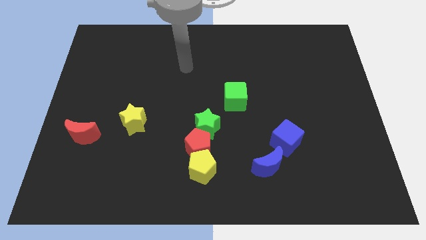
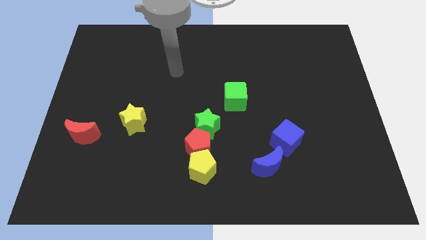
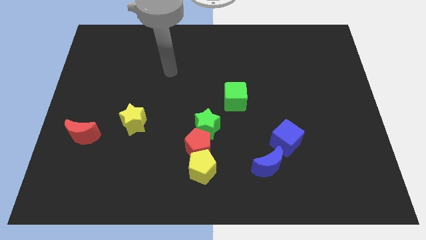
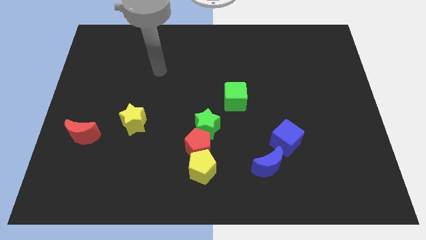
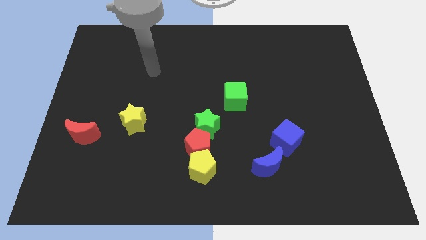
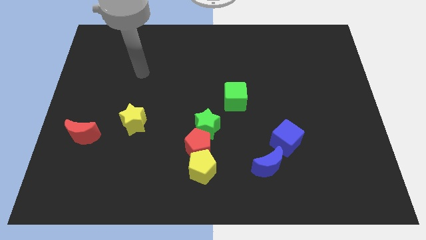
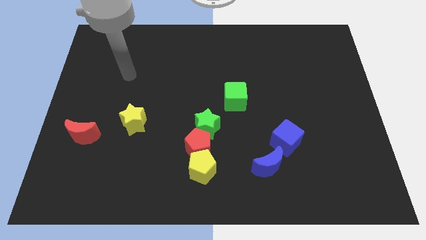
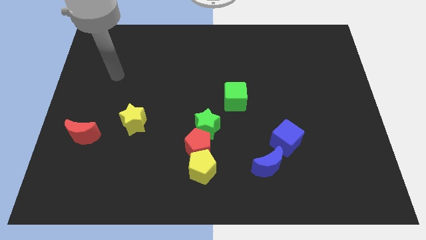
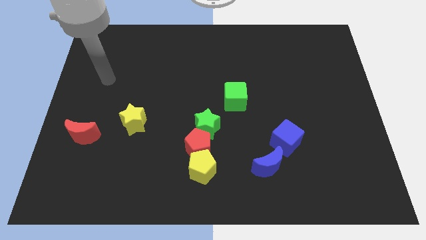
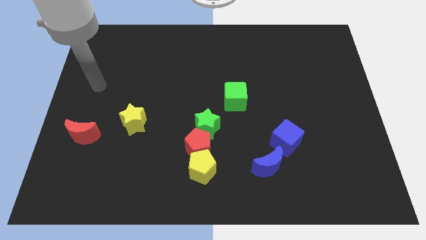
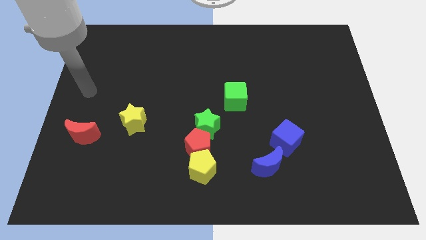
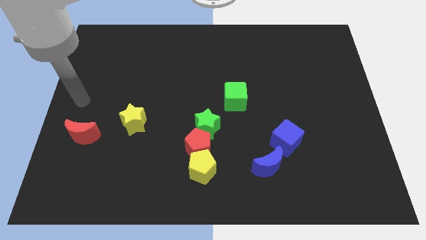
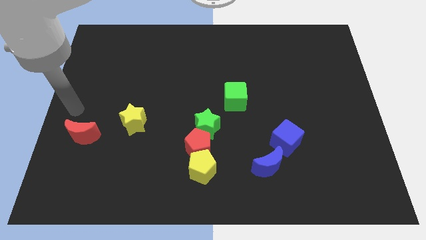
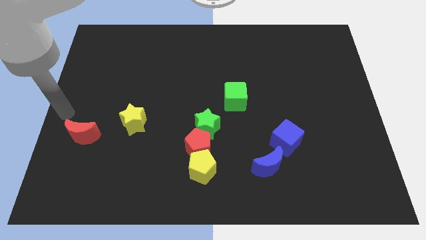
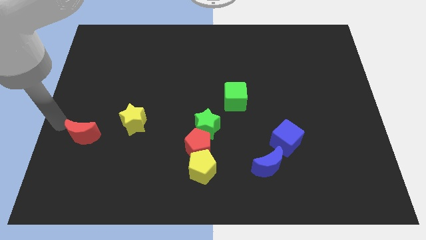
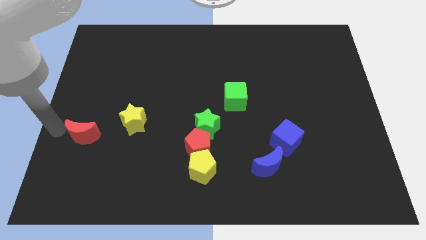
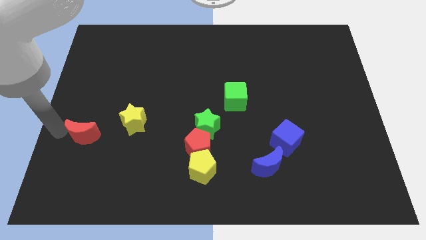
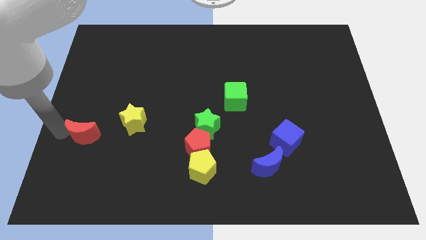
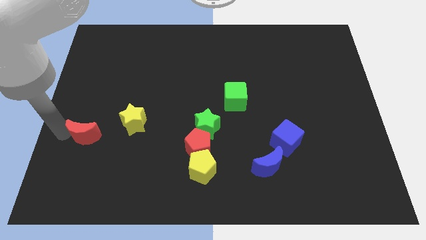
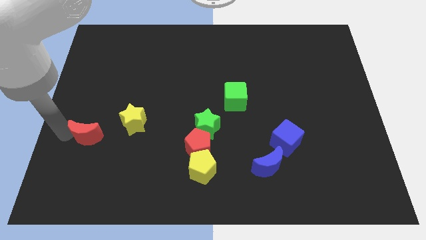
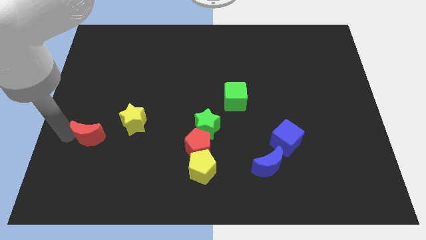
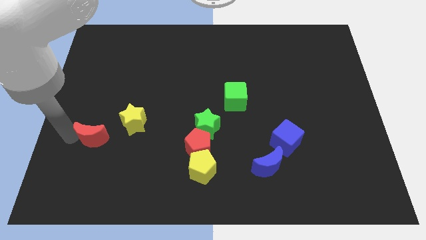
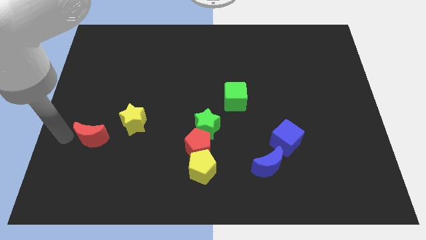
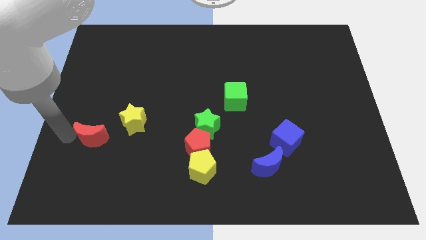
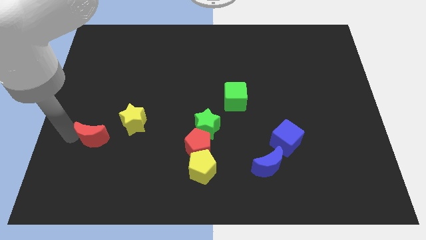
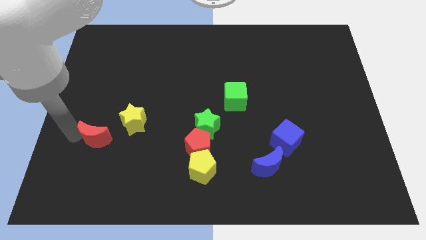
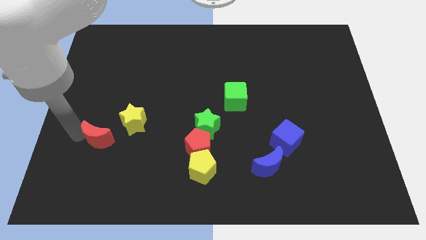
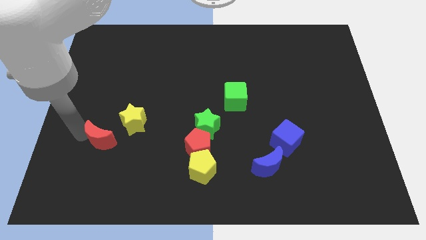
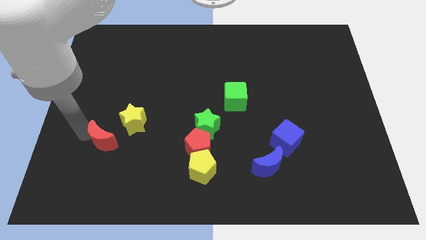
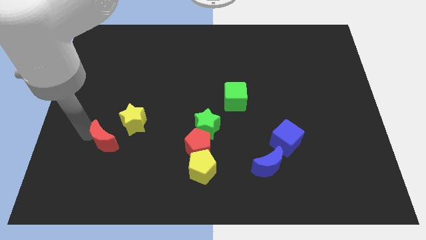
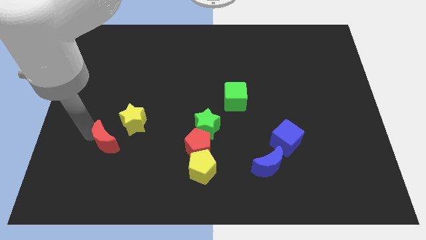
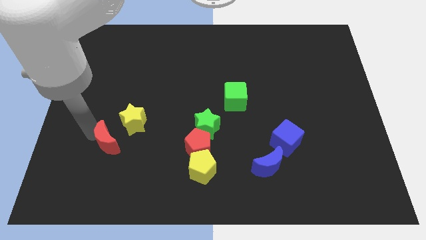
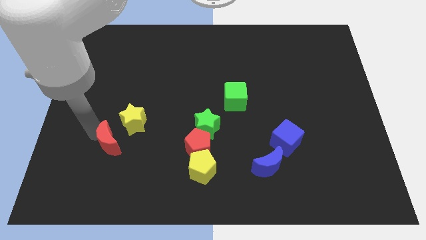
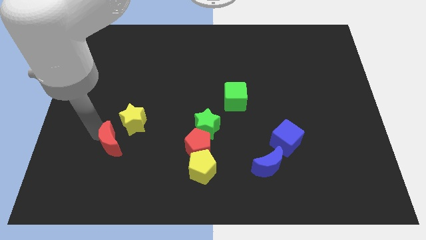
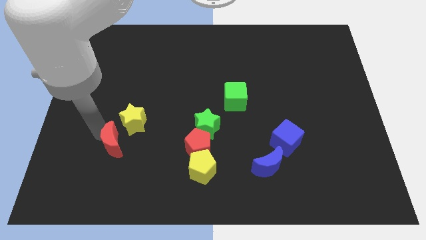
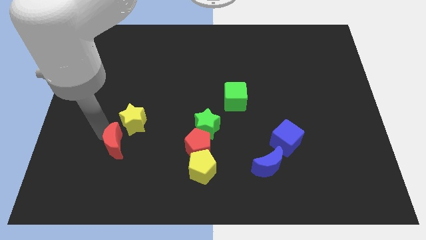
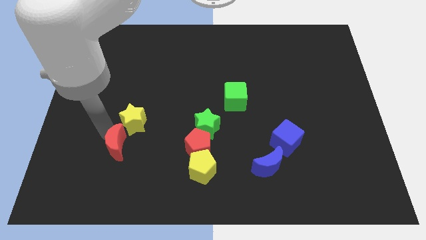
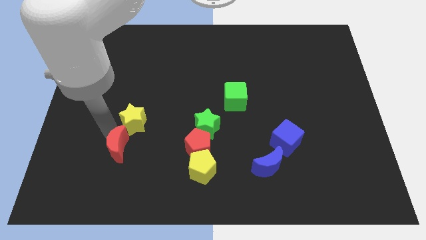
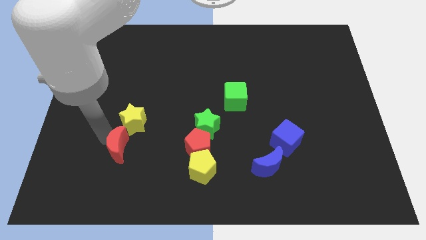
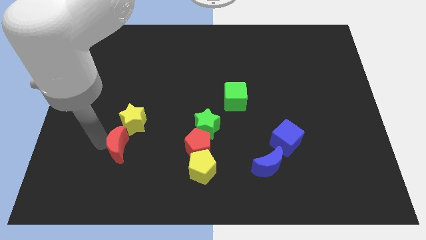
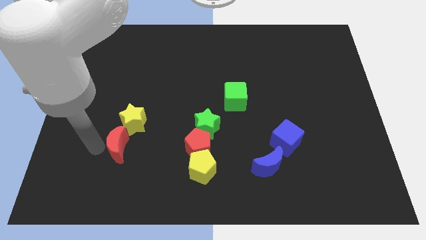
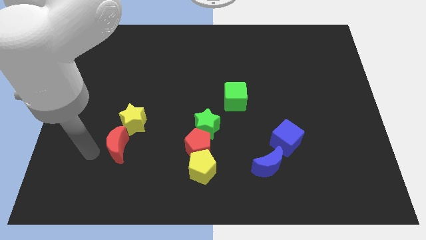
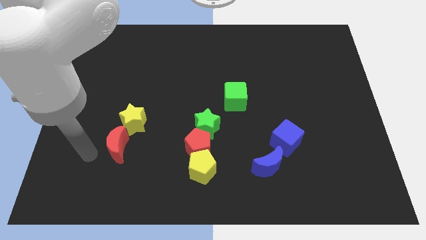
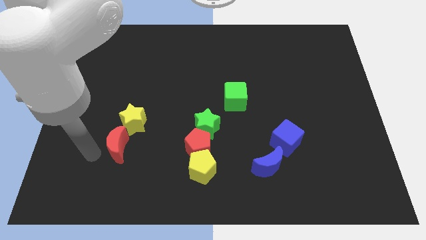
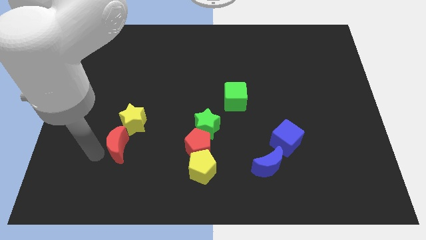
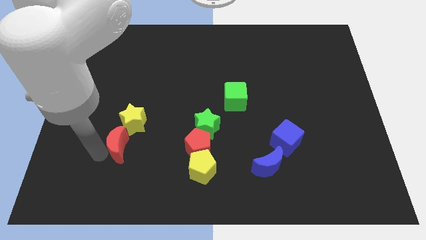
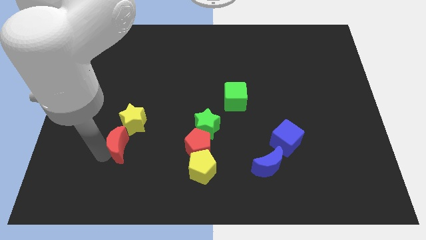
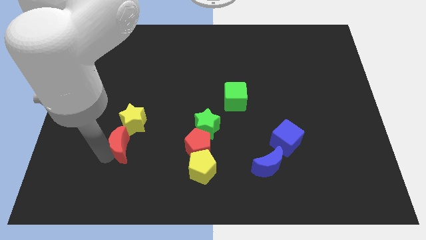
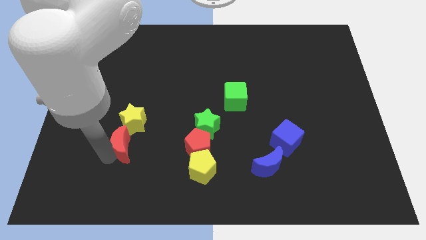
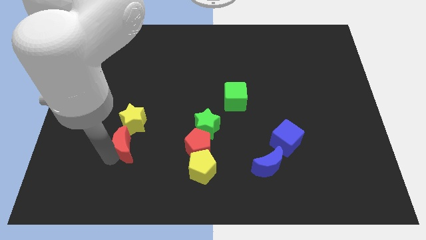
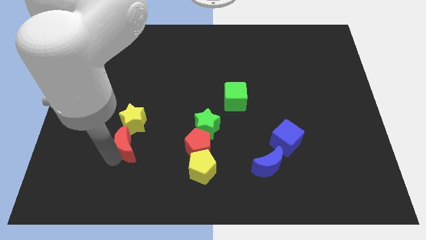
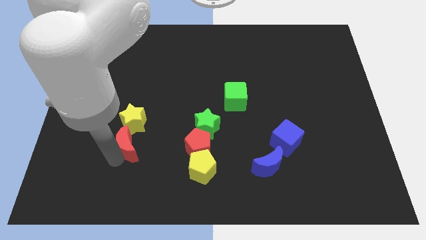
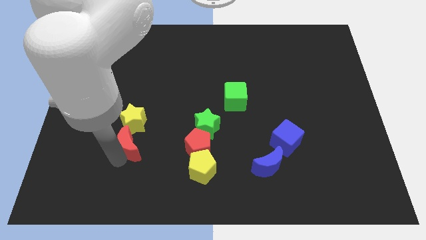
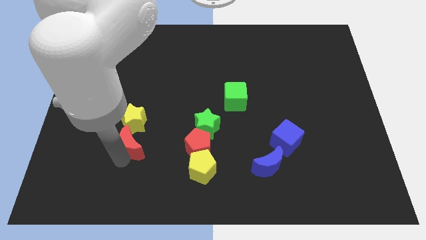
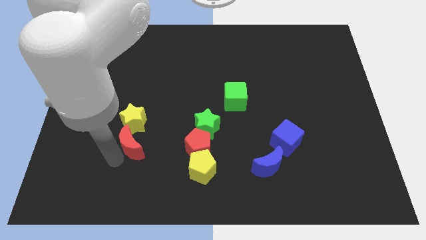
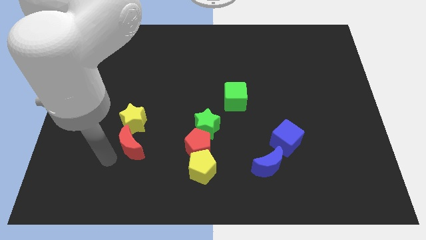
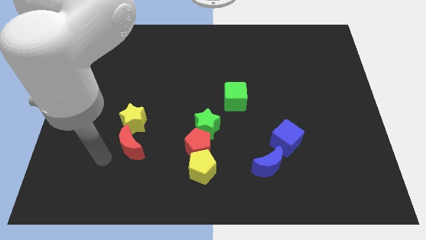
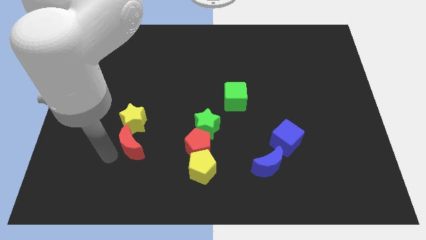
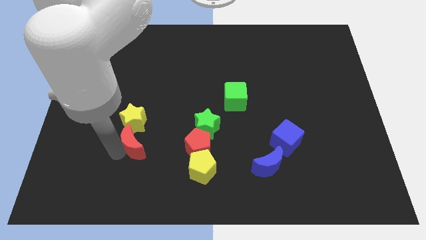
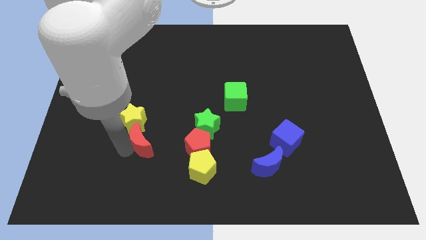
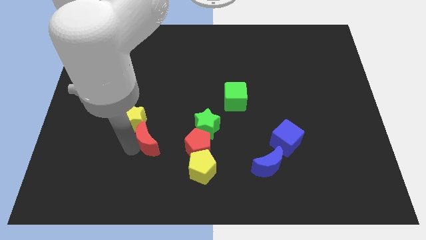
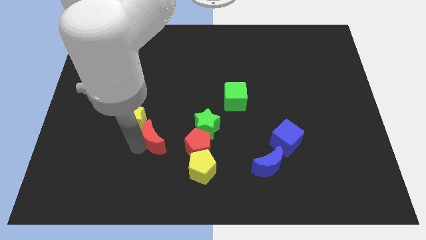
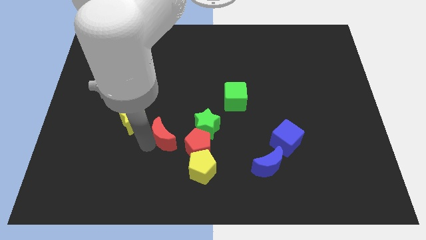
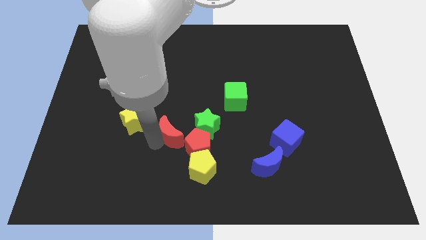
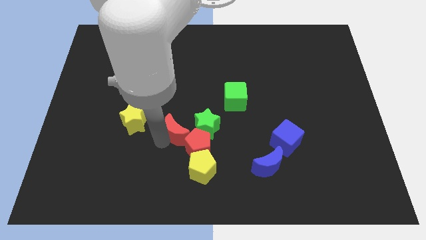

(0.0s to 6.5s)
move the red moon to the right

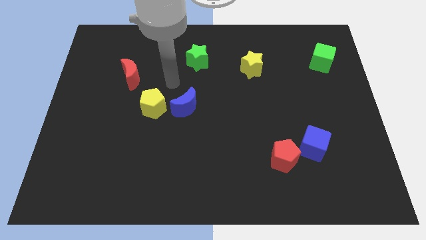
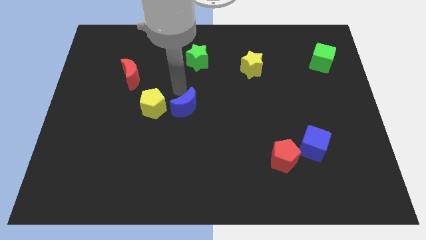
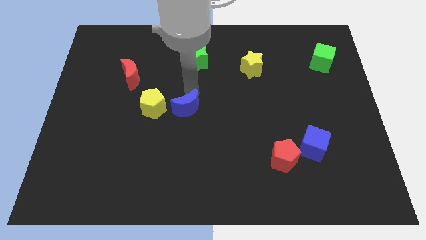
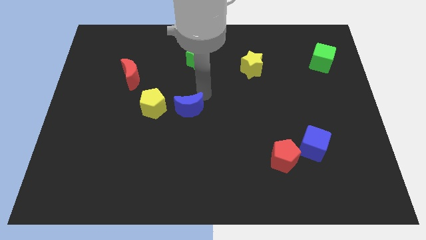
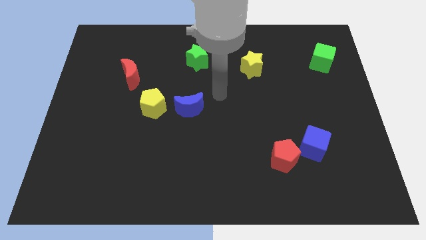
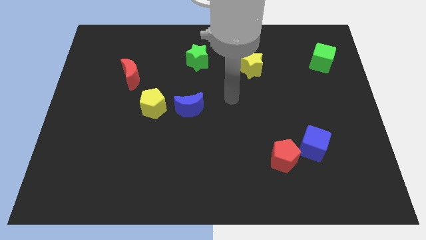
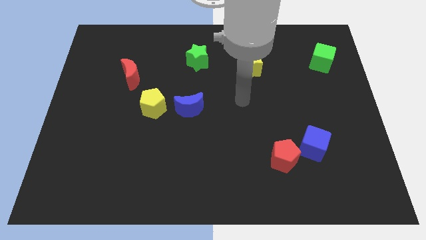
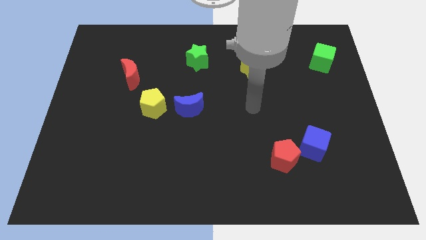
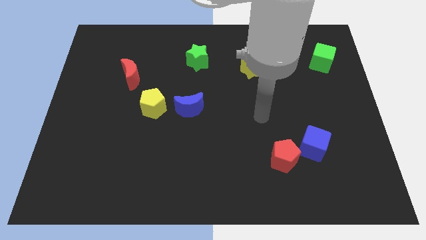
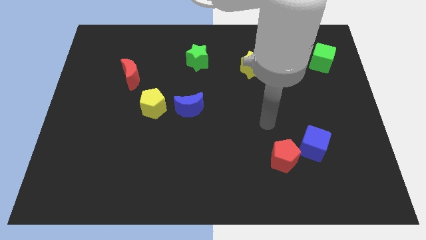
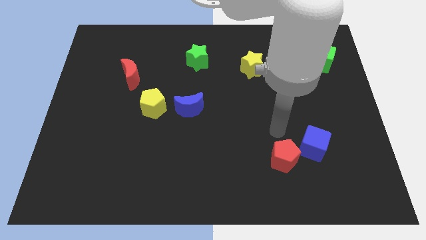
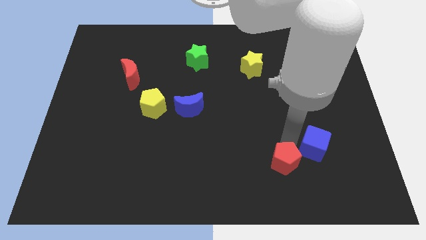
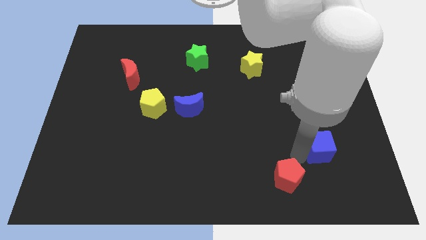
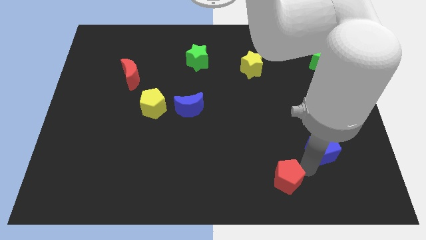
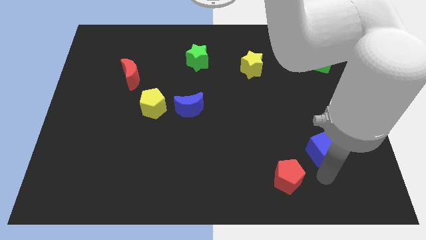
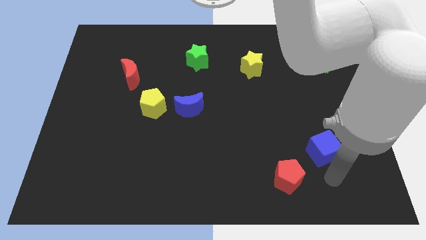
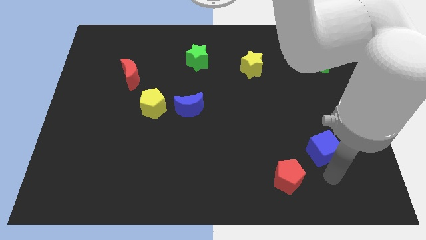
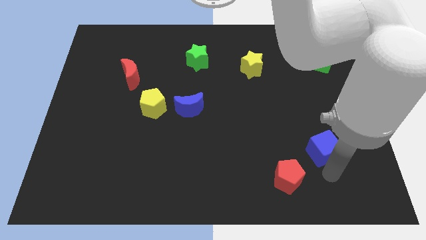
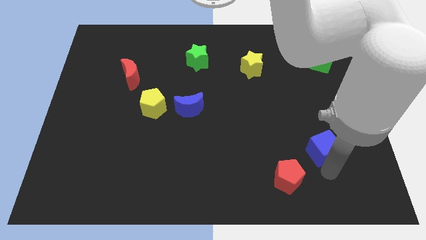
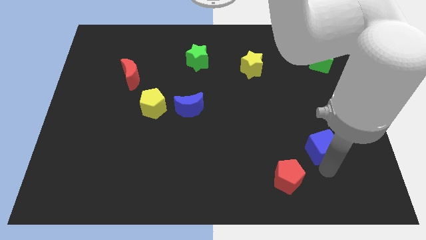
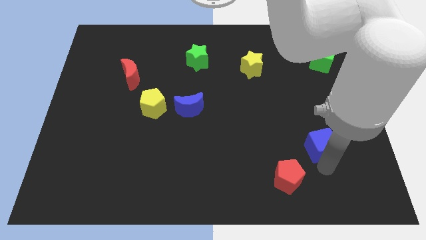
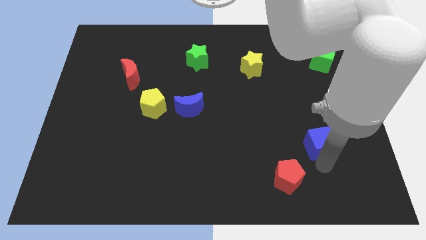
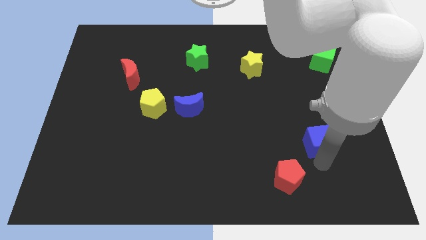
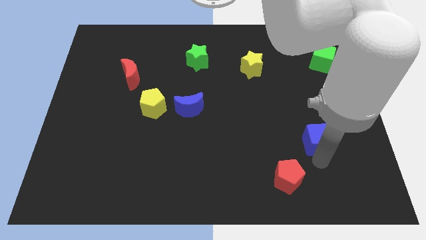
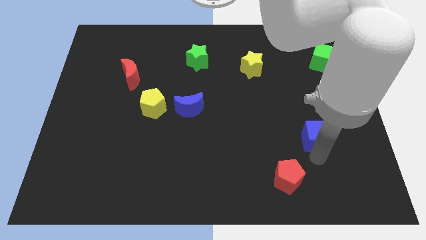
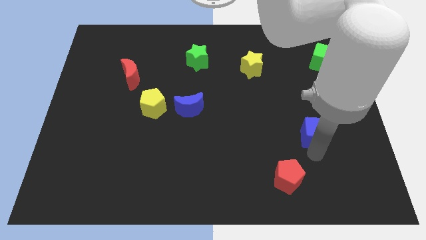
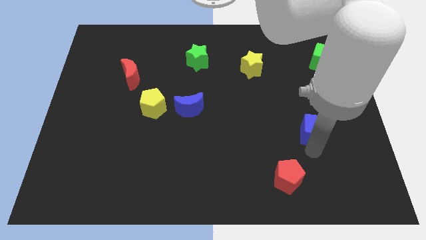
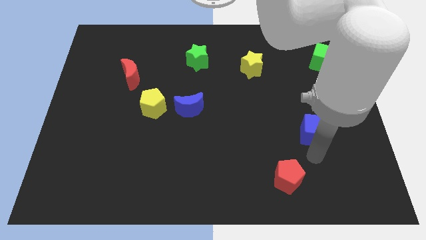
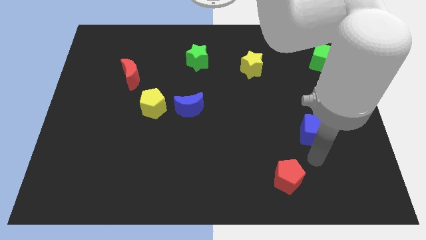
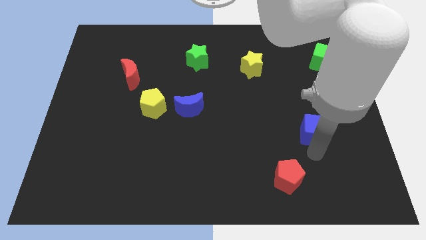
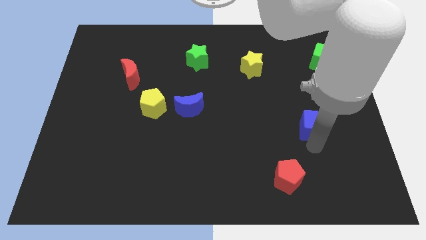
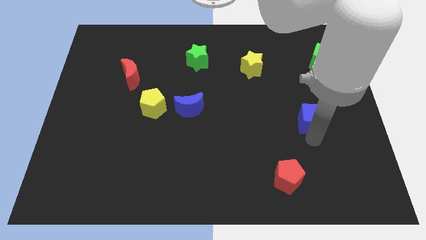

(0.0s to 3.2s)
slide the blue cube upwards slightly
